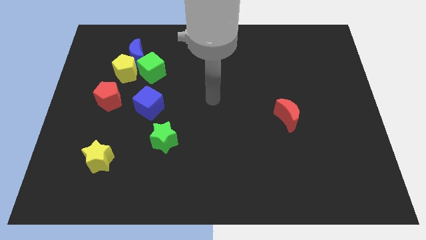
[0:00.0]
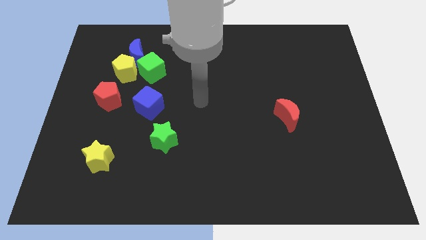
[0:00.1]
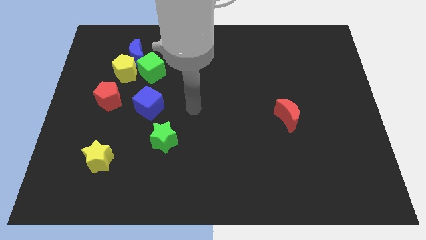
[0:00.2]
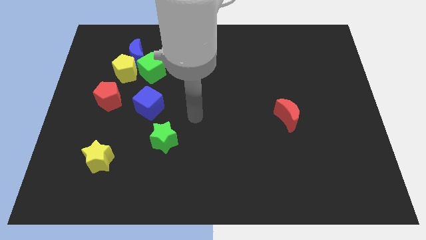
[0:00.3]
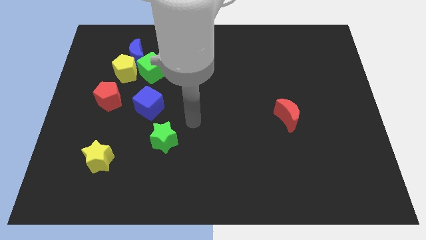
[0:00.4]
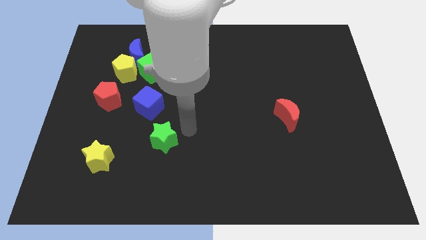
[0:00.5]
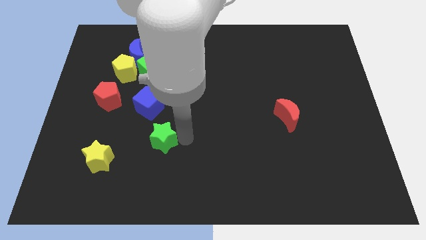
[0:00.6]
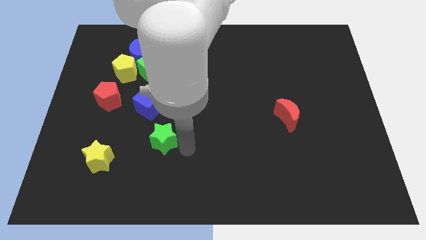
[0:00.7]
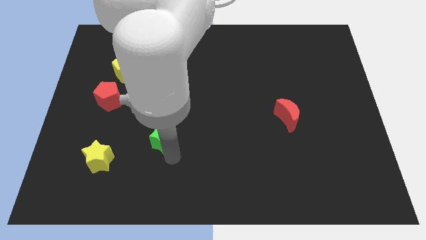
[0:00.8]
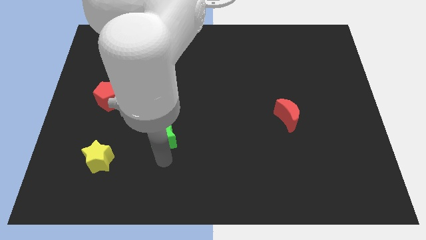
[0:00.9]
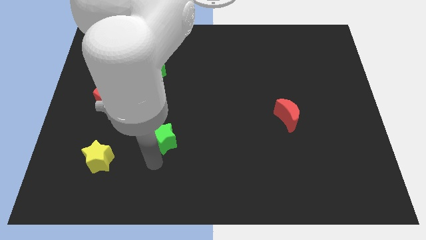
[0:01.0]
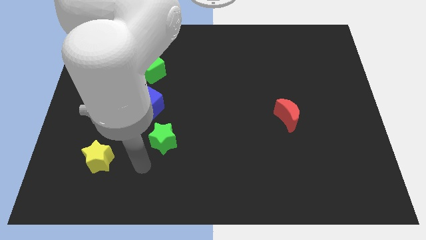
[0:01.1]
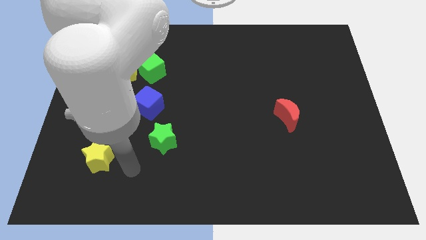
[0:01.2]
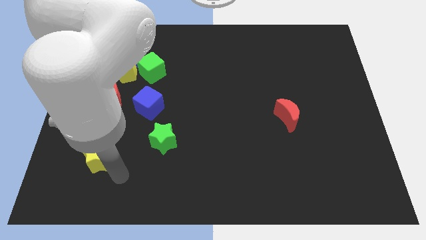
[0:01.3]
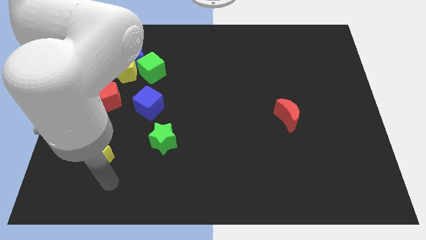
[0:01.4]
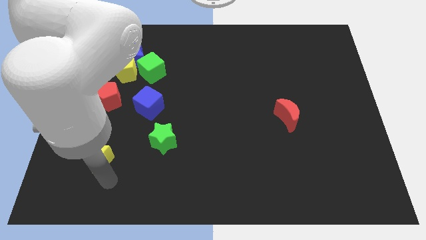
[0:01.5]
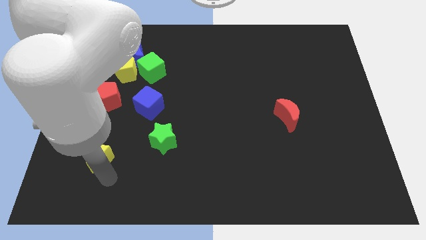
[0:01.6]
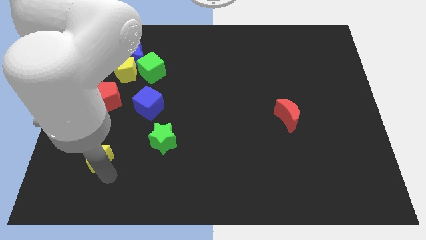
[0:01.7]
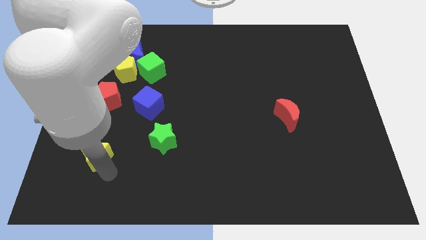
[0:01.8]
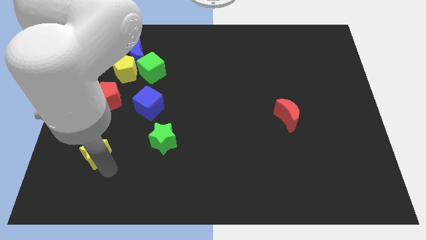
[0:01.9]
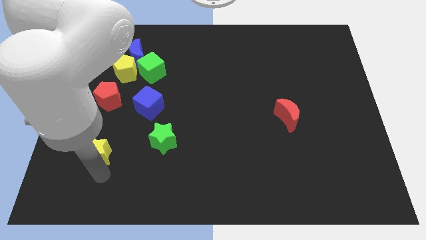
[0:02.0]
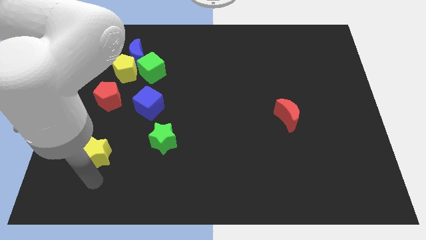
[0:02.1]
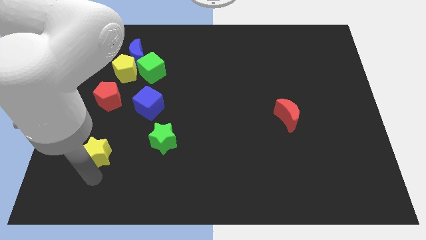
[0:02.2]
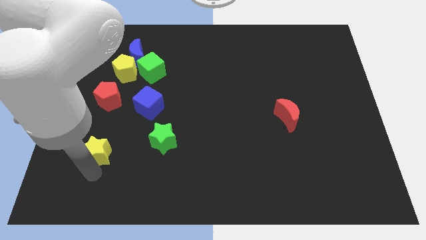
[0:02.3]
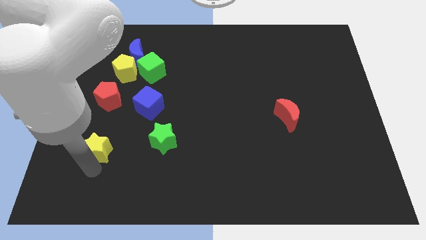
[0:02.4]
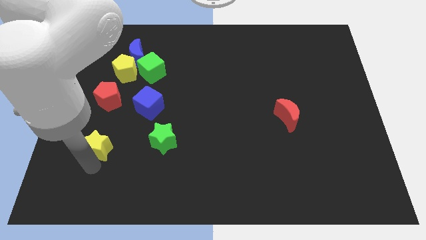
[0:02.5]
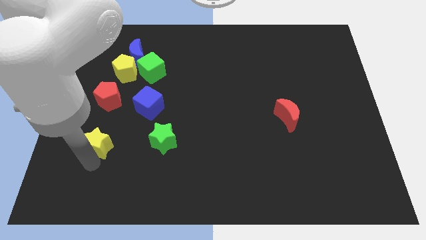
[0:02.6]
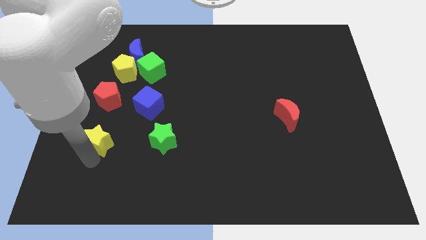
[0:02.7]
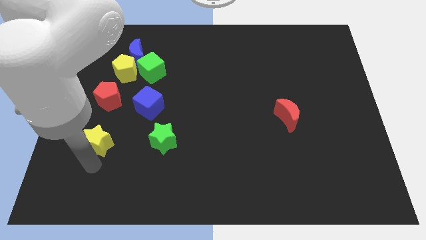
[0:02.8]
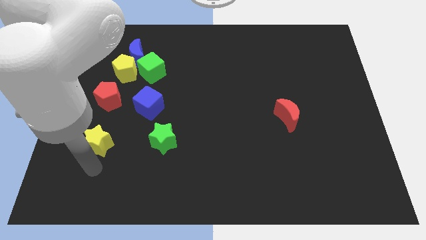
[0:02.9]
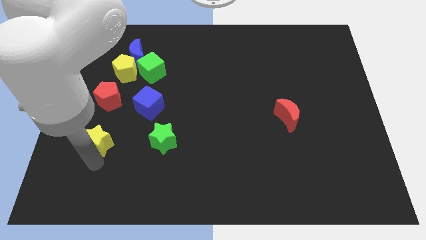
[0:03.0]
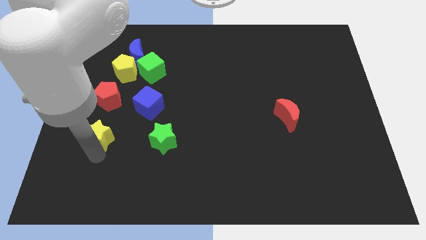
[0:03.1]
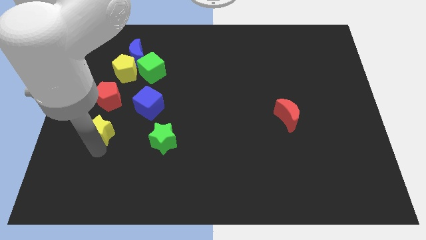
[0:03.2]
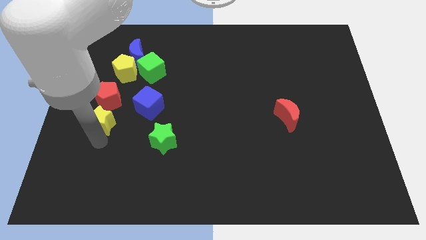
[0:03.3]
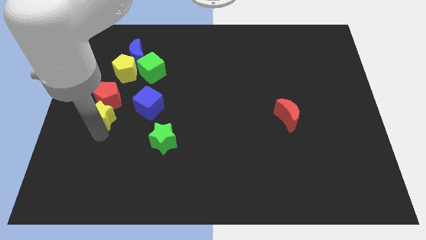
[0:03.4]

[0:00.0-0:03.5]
slide the yellow star close to the red pentagon

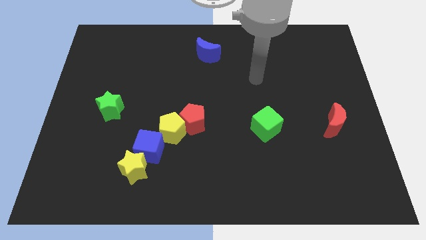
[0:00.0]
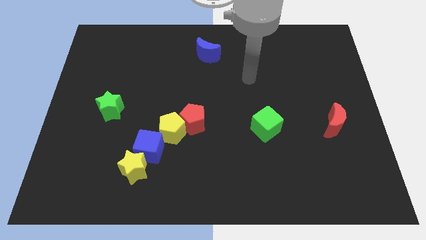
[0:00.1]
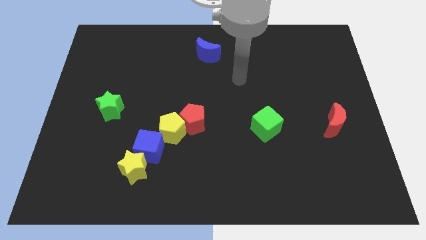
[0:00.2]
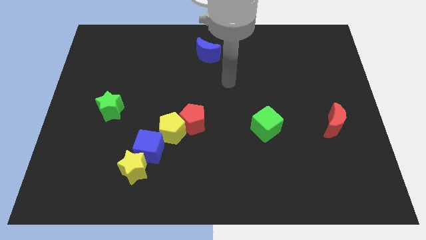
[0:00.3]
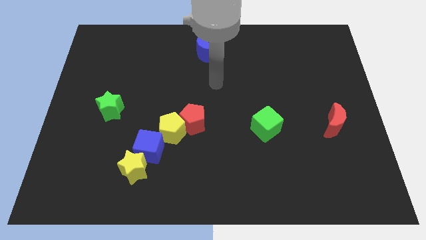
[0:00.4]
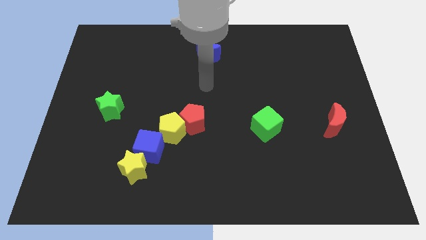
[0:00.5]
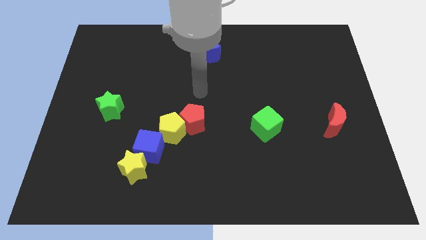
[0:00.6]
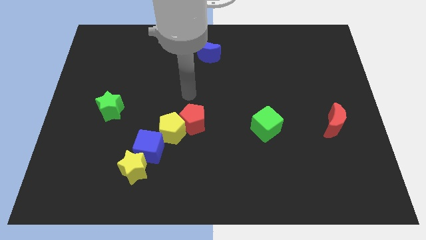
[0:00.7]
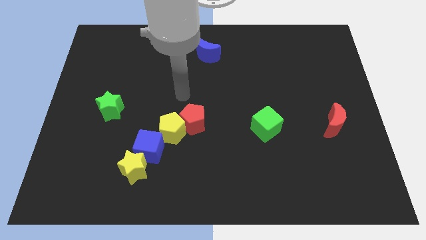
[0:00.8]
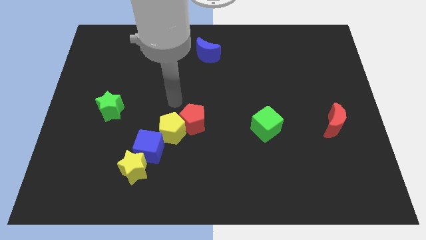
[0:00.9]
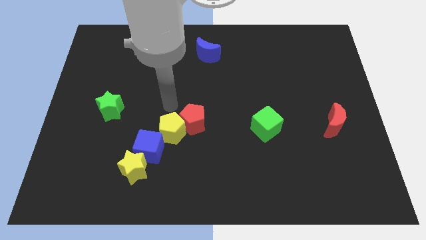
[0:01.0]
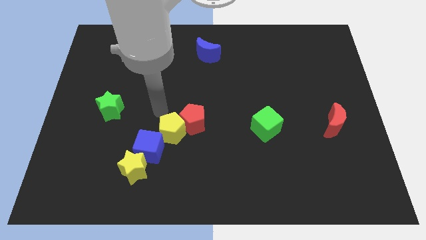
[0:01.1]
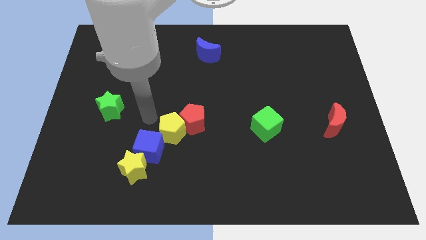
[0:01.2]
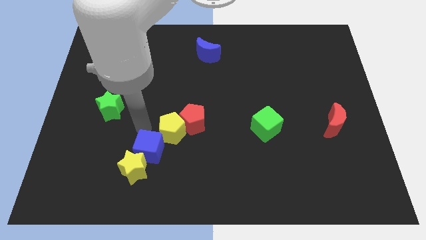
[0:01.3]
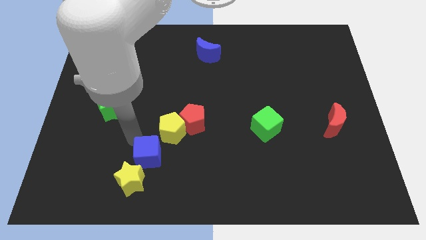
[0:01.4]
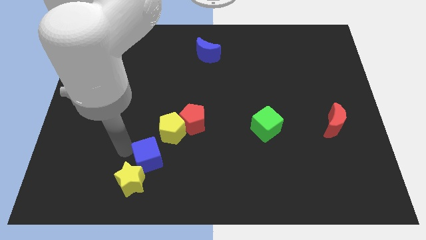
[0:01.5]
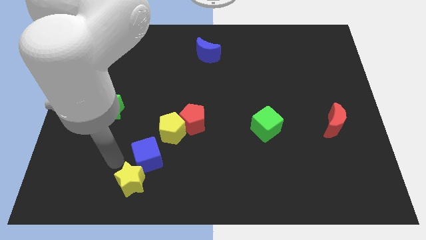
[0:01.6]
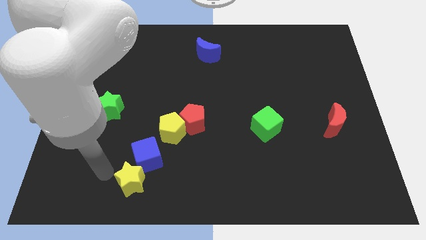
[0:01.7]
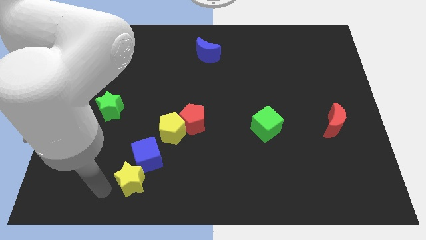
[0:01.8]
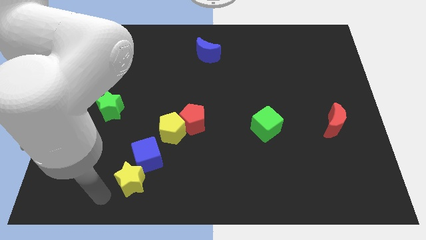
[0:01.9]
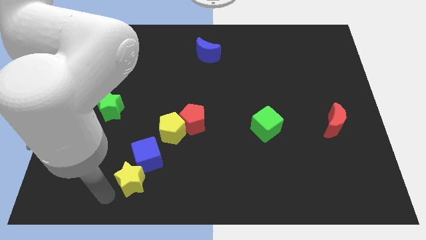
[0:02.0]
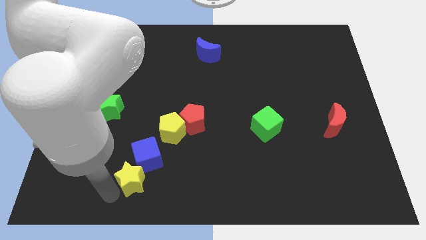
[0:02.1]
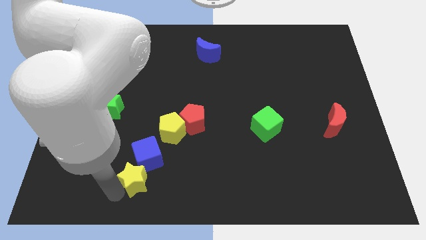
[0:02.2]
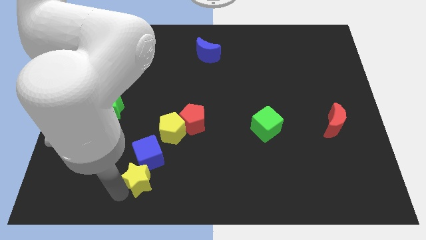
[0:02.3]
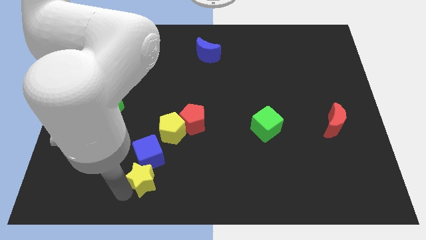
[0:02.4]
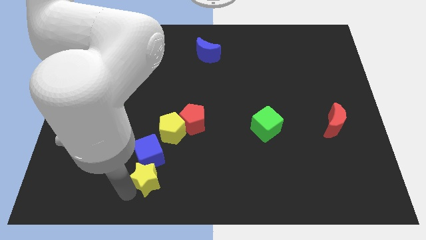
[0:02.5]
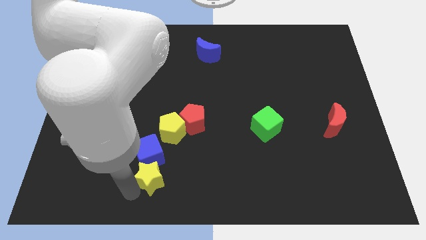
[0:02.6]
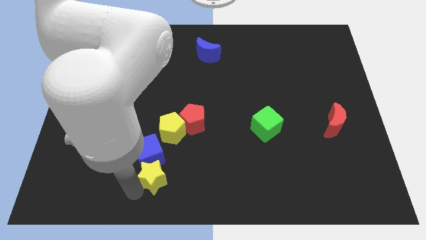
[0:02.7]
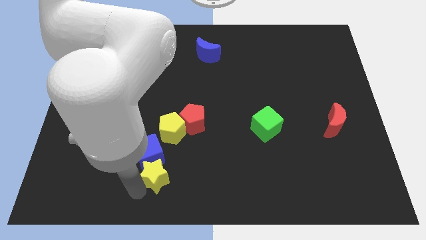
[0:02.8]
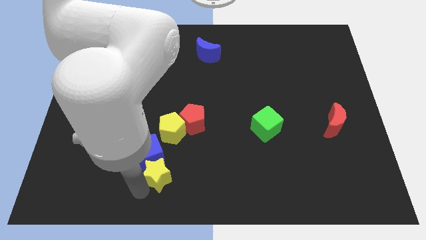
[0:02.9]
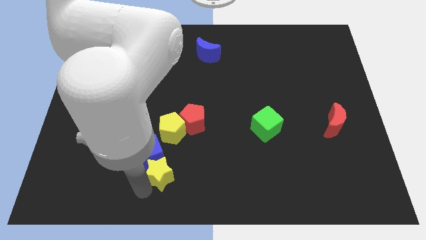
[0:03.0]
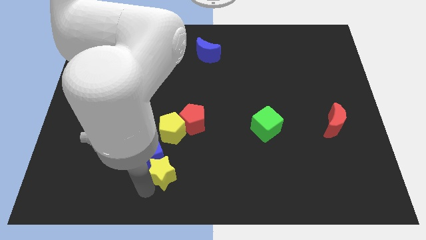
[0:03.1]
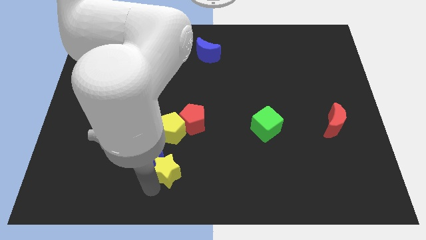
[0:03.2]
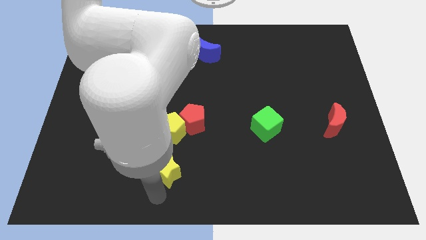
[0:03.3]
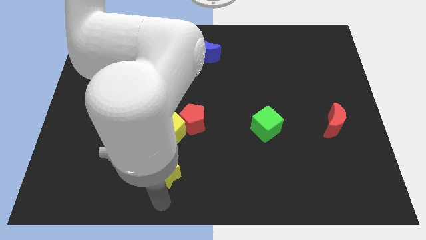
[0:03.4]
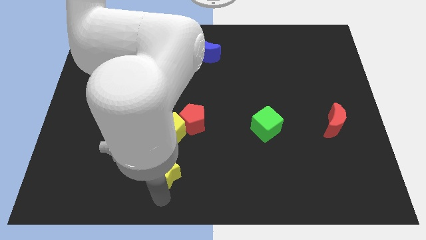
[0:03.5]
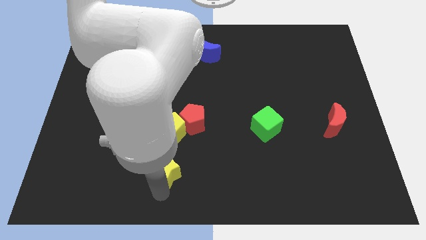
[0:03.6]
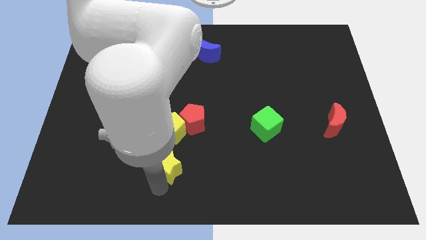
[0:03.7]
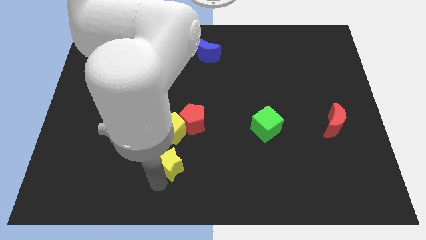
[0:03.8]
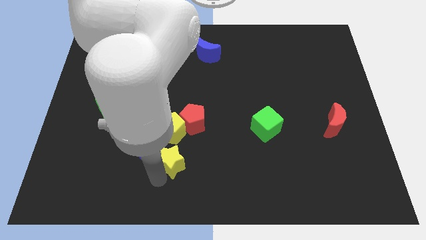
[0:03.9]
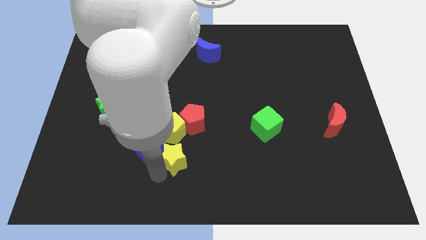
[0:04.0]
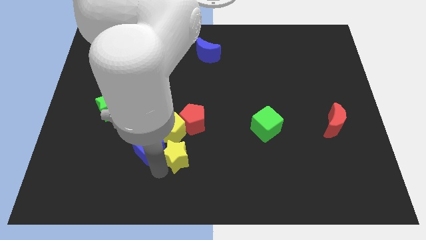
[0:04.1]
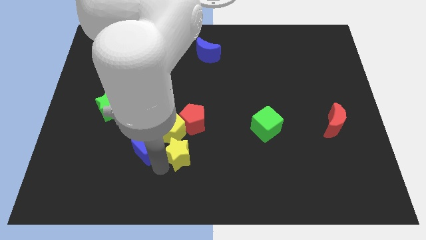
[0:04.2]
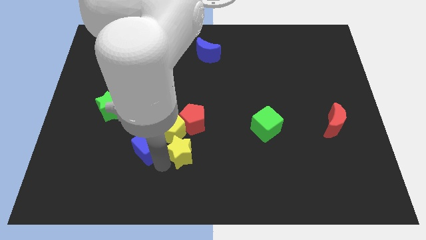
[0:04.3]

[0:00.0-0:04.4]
slide the yellow star to the yellow pentagon

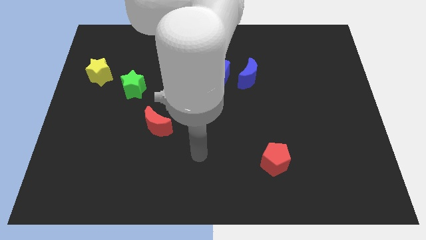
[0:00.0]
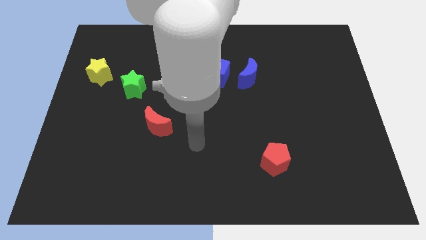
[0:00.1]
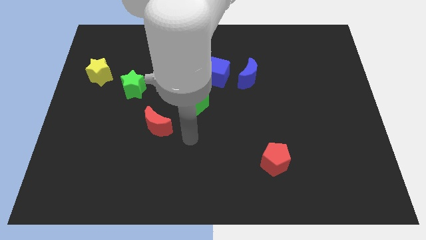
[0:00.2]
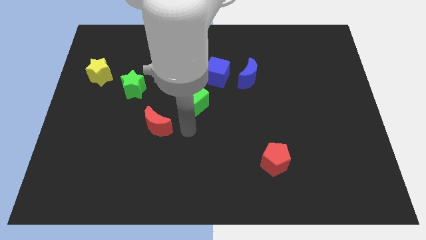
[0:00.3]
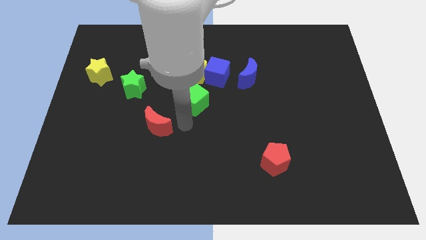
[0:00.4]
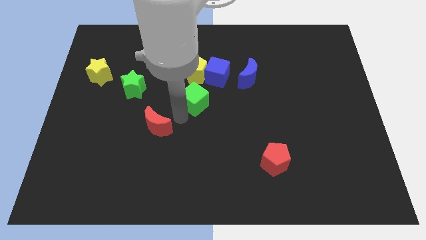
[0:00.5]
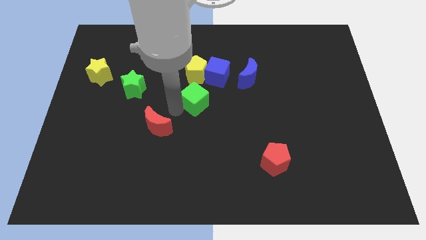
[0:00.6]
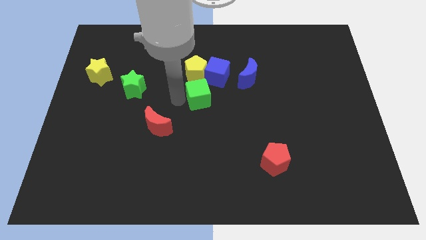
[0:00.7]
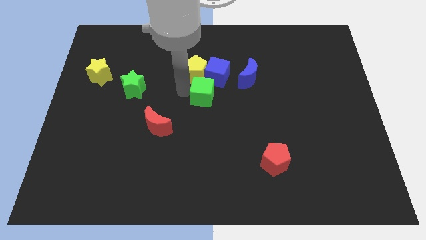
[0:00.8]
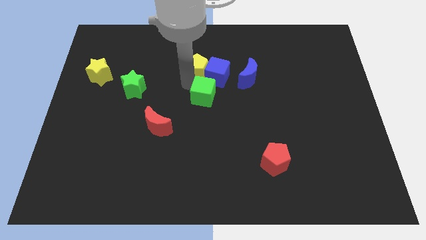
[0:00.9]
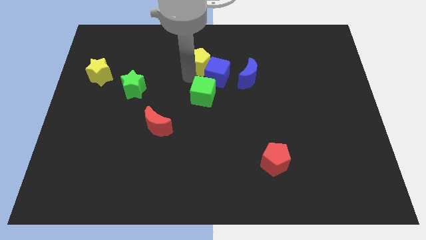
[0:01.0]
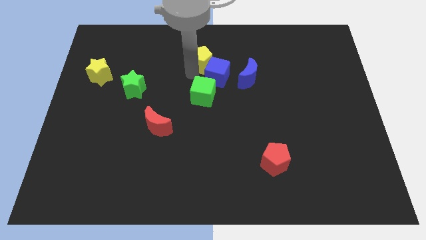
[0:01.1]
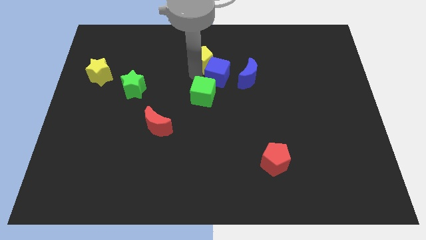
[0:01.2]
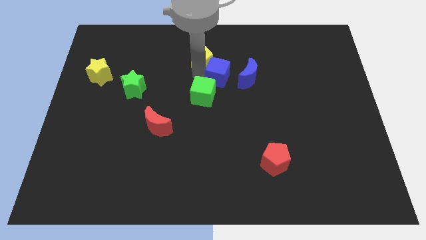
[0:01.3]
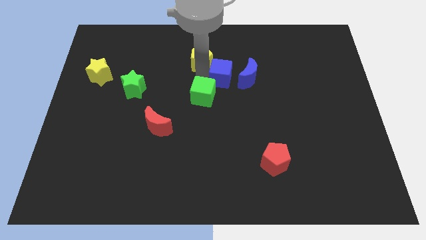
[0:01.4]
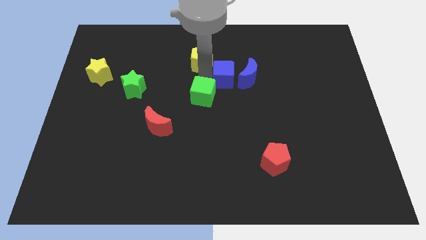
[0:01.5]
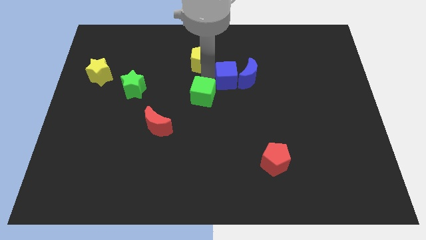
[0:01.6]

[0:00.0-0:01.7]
push the blue cube to the blue moon
